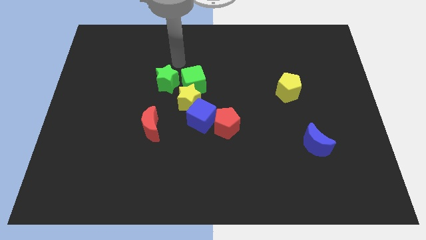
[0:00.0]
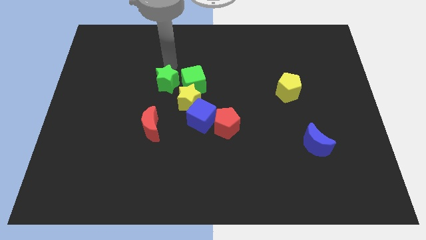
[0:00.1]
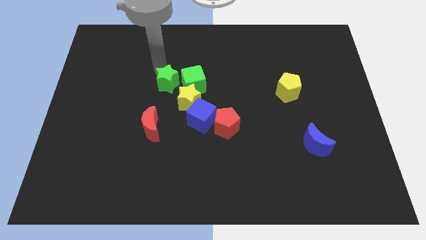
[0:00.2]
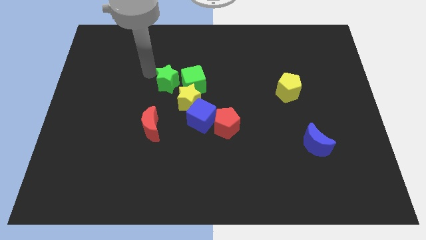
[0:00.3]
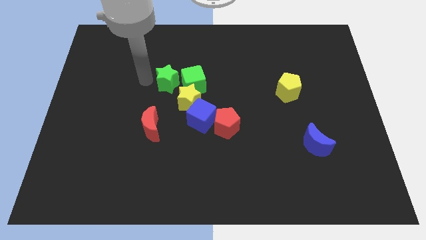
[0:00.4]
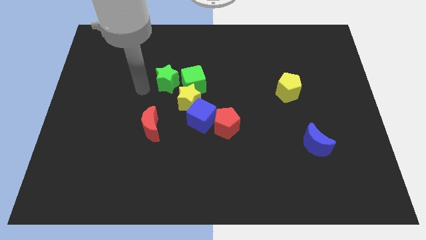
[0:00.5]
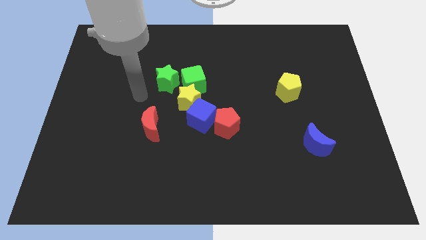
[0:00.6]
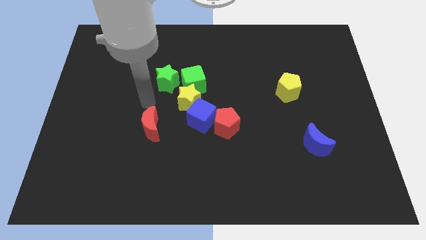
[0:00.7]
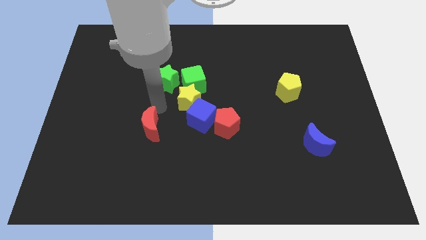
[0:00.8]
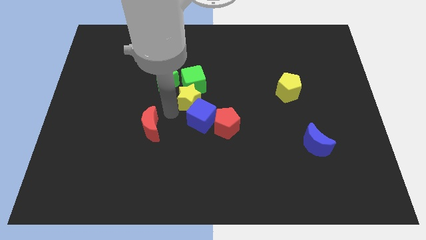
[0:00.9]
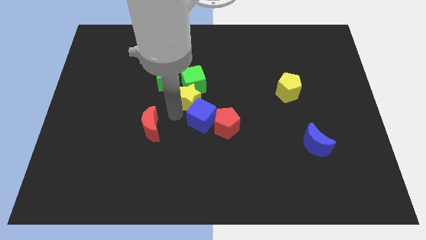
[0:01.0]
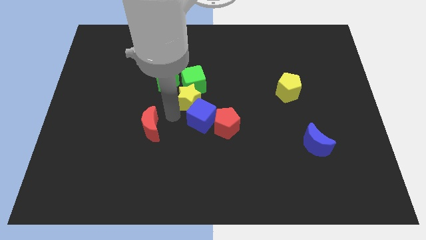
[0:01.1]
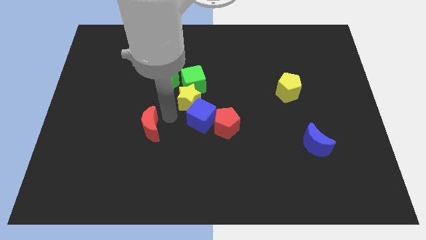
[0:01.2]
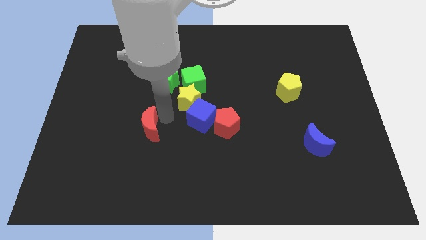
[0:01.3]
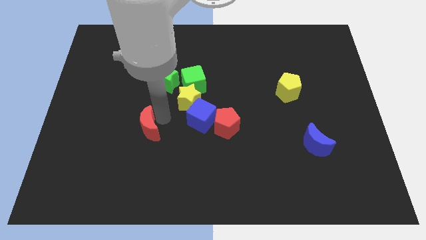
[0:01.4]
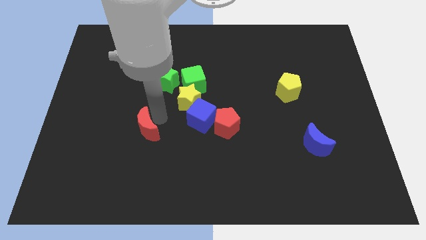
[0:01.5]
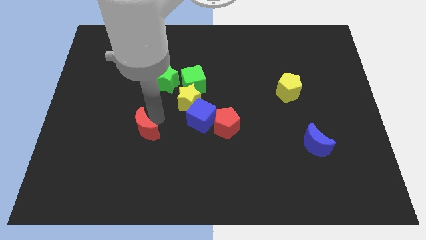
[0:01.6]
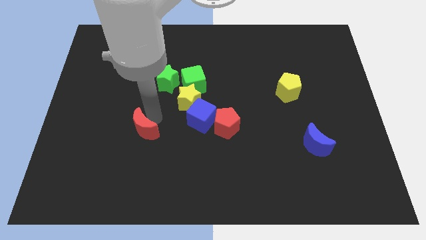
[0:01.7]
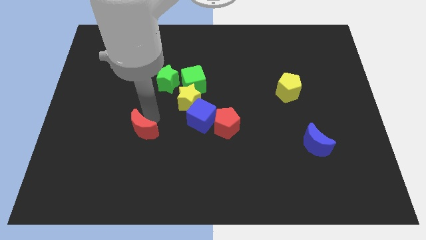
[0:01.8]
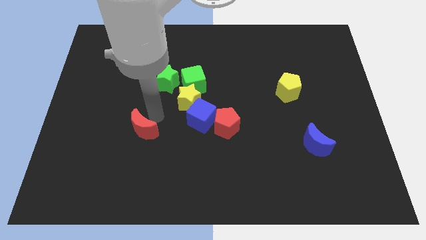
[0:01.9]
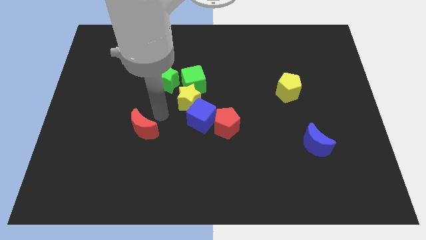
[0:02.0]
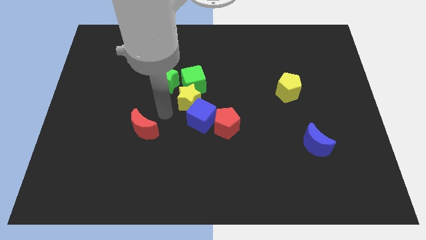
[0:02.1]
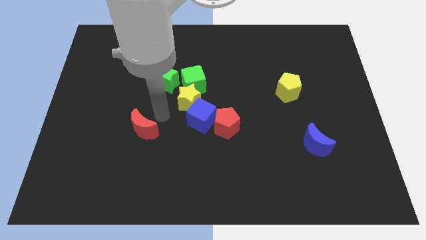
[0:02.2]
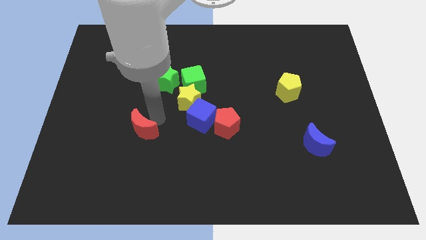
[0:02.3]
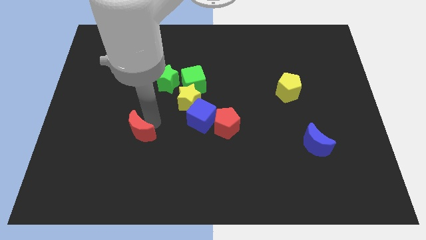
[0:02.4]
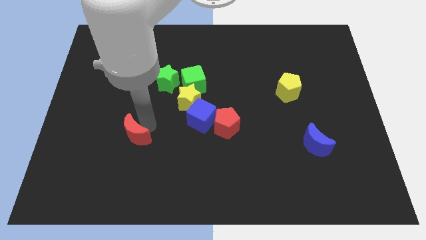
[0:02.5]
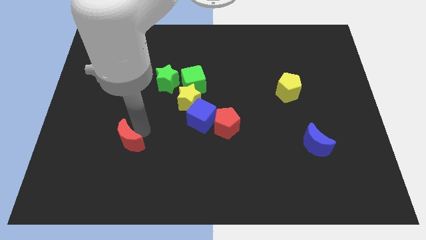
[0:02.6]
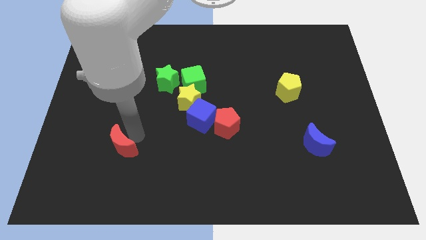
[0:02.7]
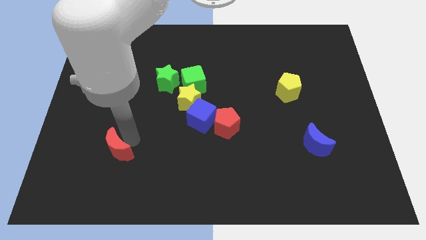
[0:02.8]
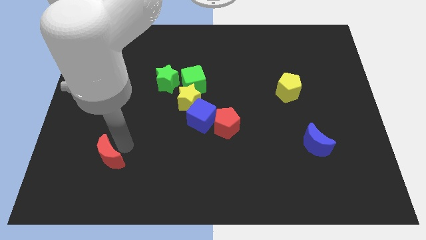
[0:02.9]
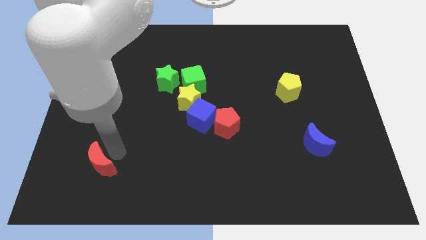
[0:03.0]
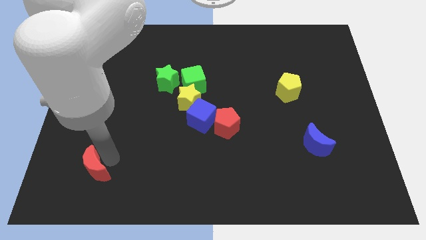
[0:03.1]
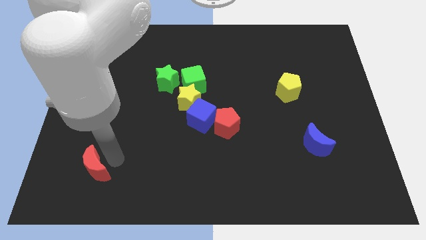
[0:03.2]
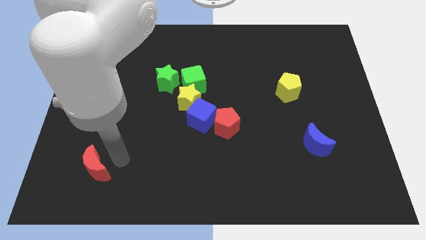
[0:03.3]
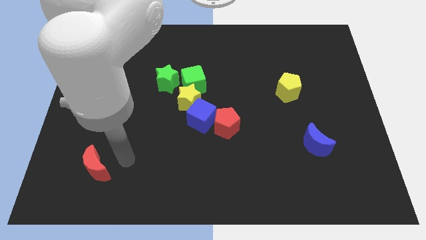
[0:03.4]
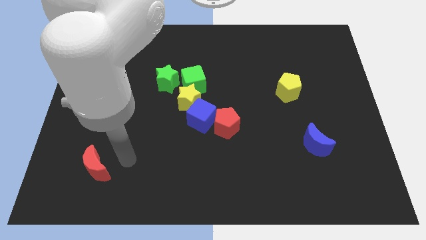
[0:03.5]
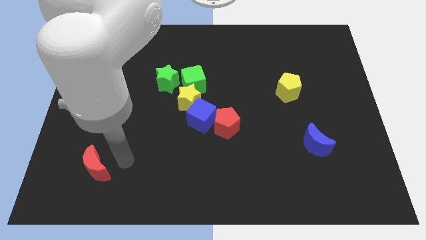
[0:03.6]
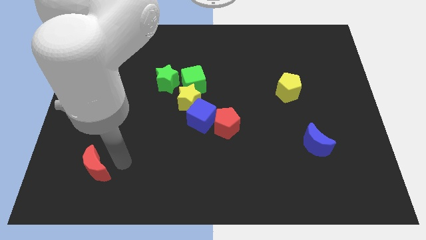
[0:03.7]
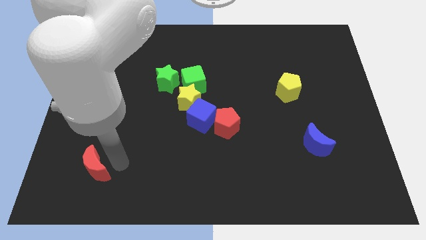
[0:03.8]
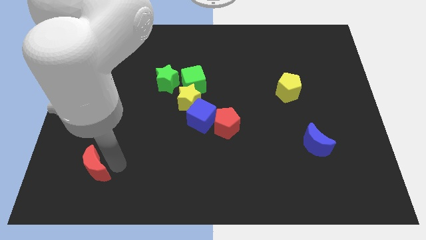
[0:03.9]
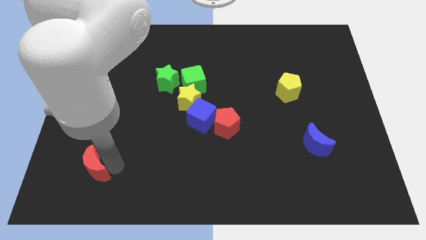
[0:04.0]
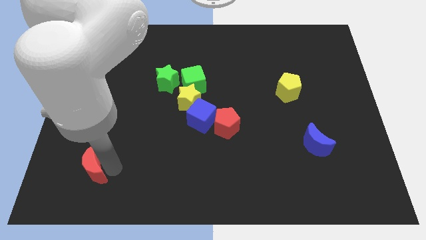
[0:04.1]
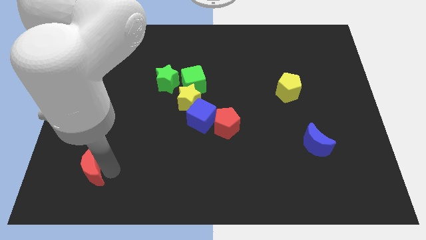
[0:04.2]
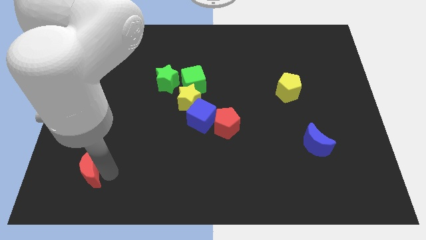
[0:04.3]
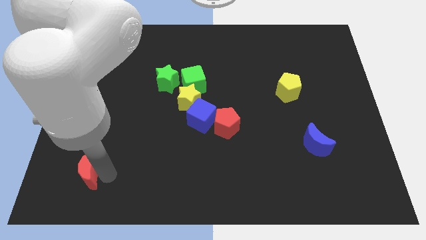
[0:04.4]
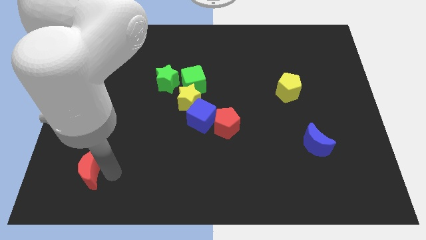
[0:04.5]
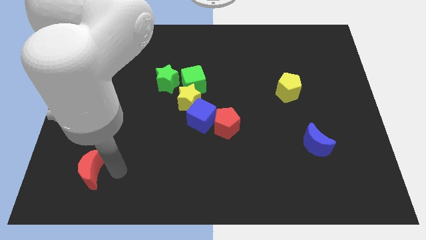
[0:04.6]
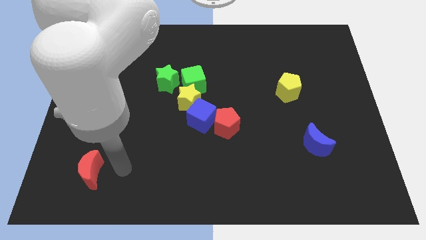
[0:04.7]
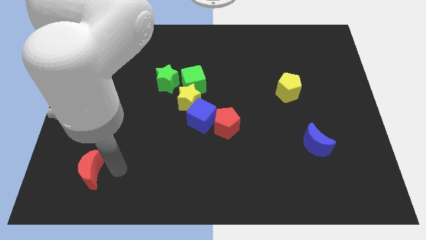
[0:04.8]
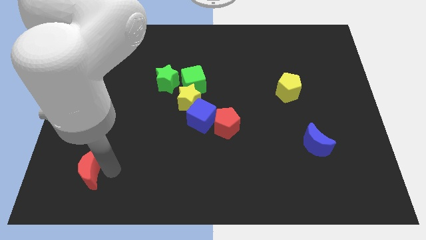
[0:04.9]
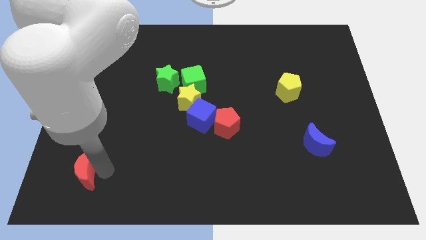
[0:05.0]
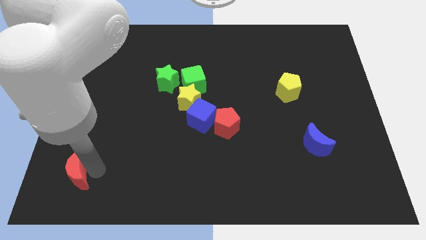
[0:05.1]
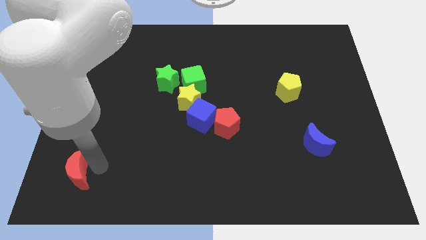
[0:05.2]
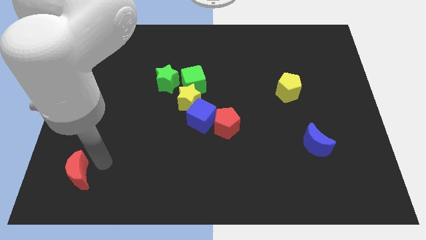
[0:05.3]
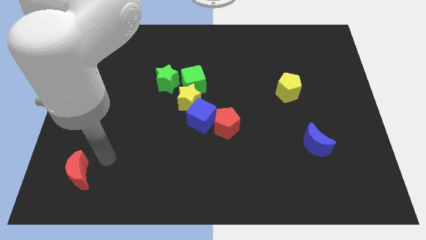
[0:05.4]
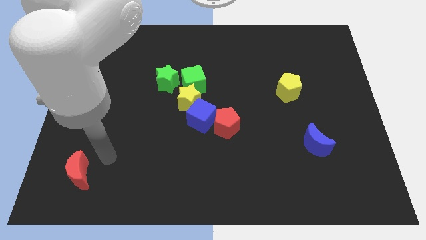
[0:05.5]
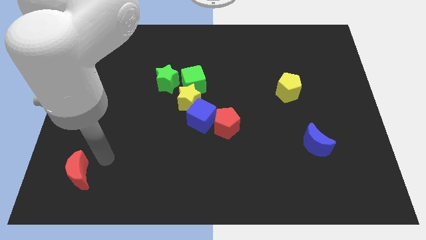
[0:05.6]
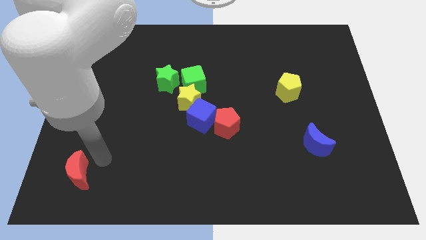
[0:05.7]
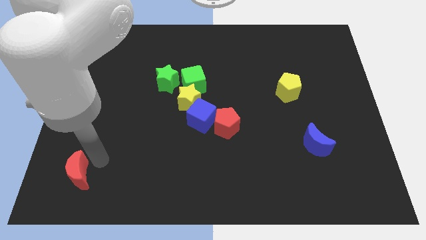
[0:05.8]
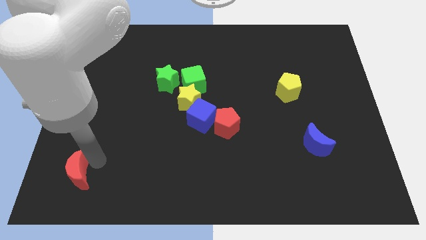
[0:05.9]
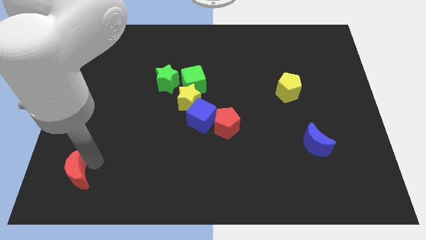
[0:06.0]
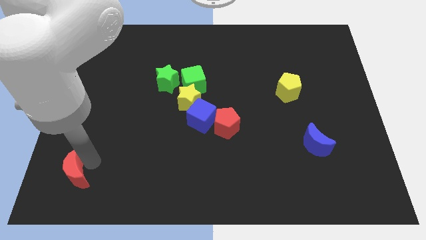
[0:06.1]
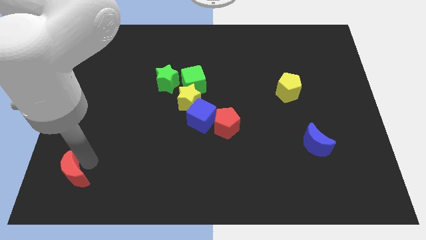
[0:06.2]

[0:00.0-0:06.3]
move the red moon to the bottom left
